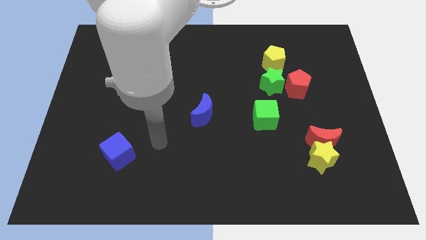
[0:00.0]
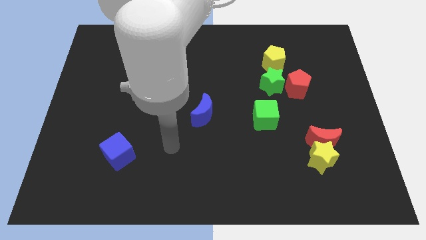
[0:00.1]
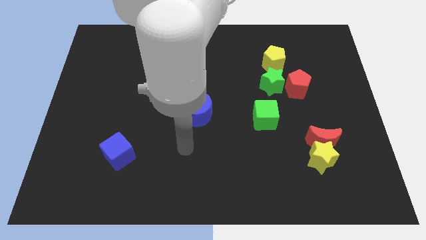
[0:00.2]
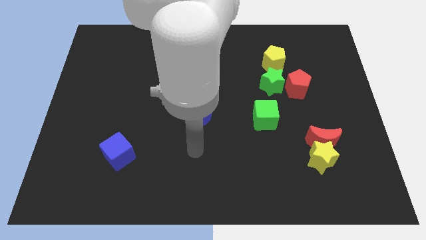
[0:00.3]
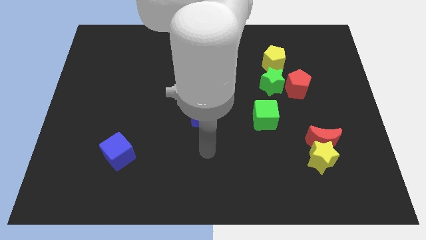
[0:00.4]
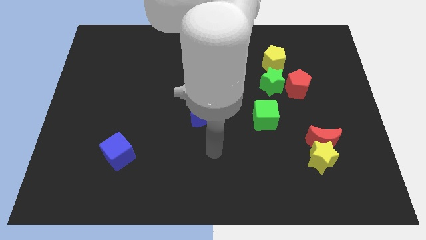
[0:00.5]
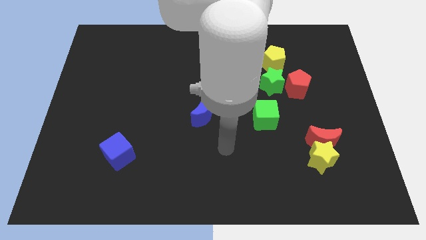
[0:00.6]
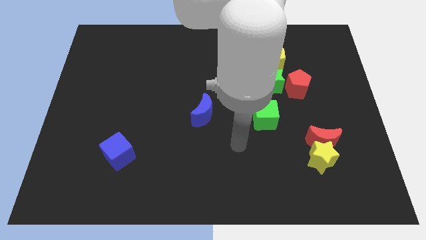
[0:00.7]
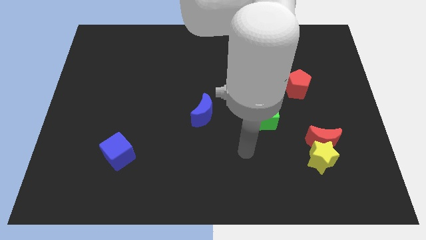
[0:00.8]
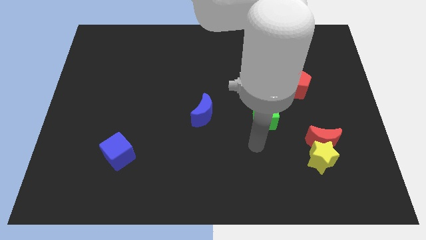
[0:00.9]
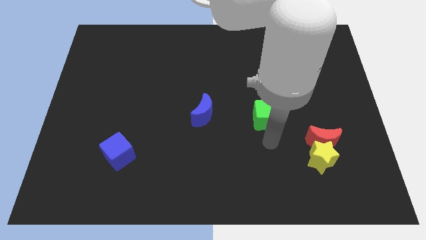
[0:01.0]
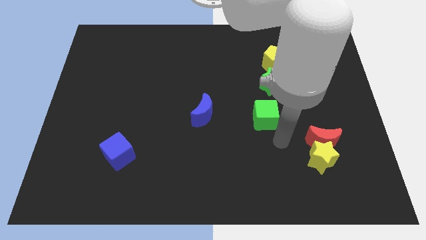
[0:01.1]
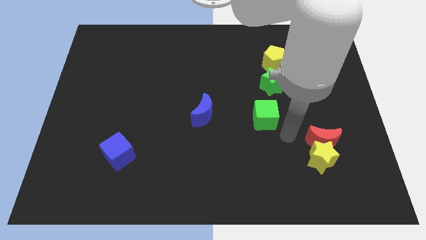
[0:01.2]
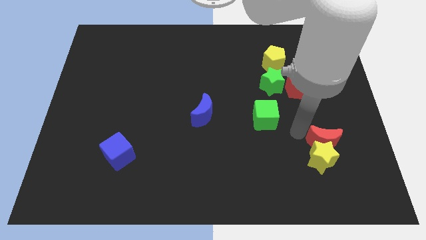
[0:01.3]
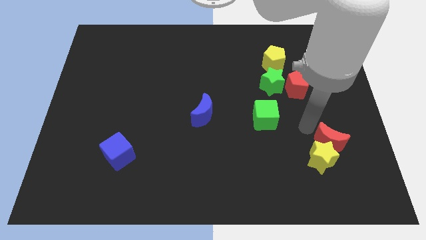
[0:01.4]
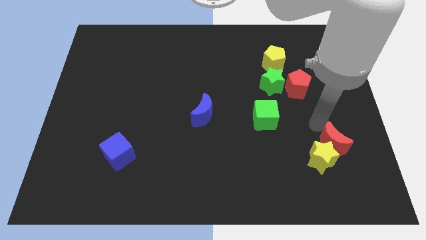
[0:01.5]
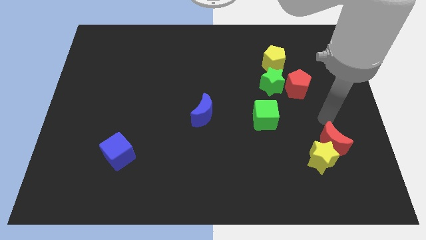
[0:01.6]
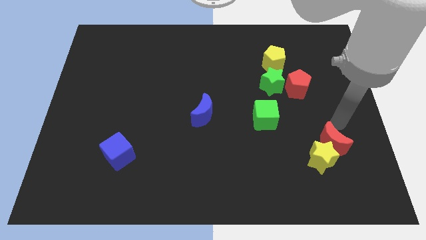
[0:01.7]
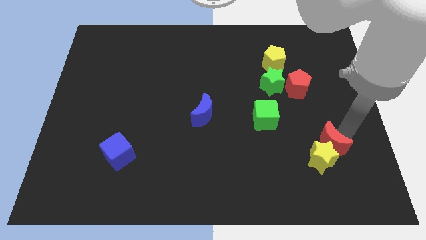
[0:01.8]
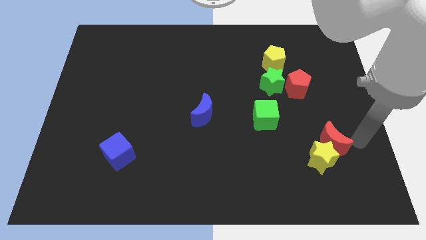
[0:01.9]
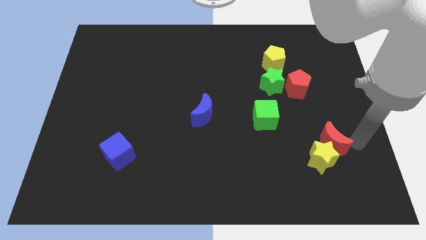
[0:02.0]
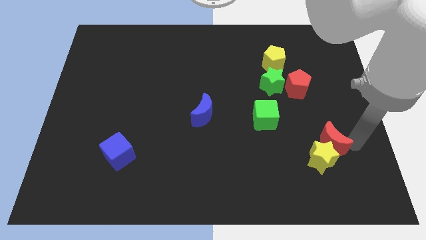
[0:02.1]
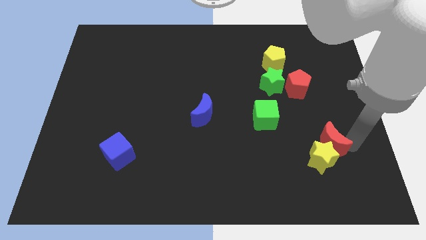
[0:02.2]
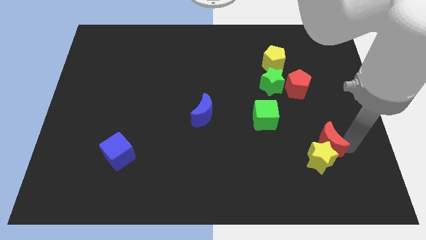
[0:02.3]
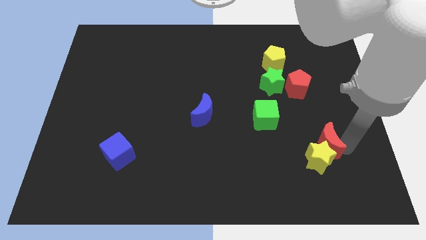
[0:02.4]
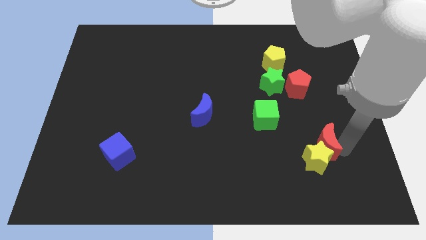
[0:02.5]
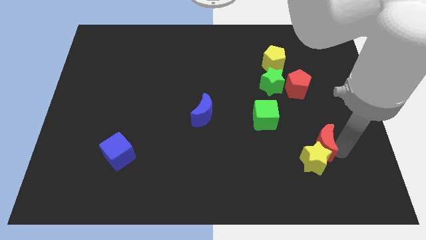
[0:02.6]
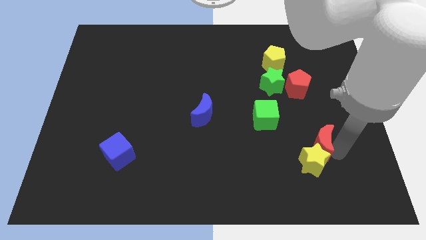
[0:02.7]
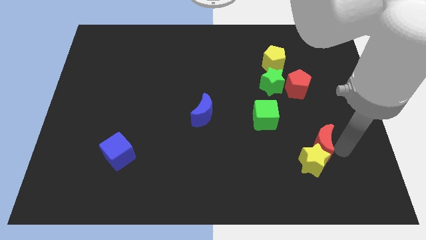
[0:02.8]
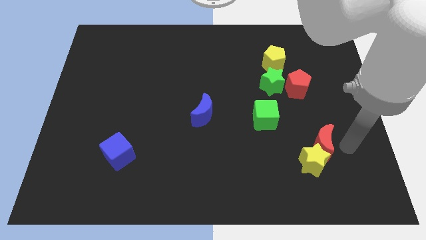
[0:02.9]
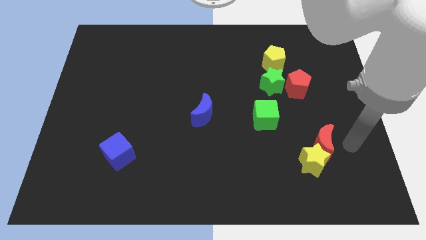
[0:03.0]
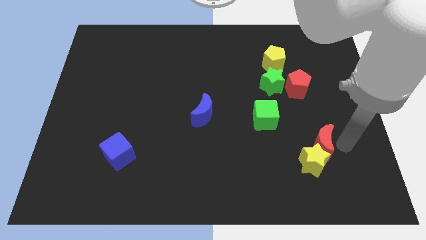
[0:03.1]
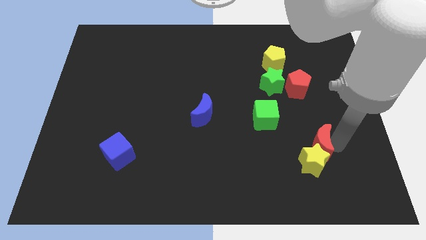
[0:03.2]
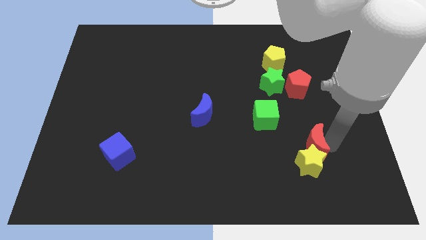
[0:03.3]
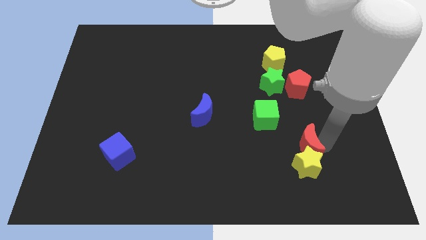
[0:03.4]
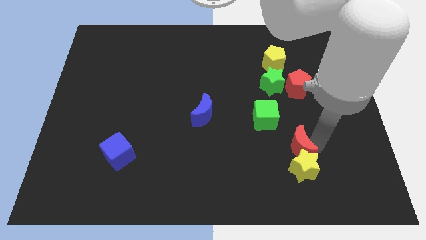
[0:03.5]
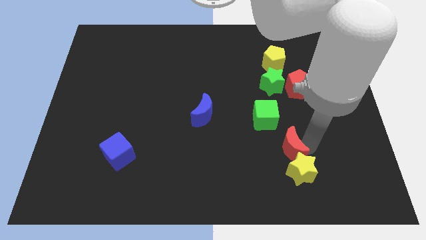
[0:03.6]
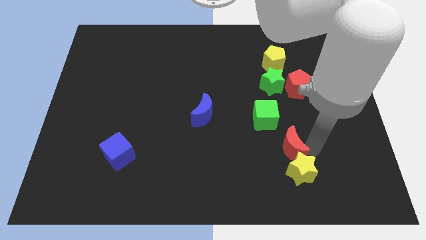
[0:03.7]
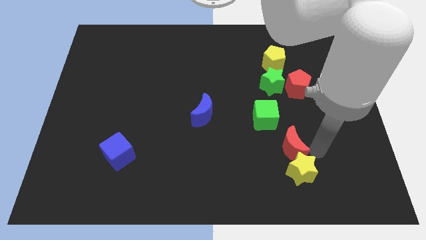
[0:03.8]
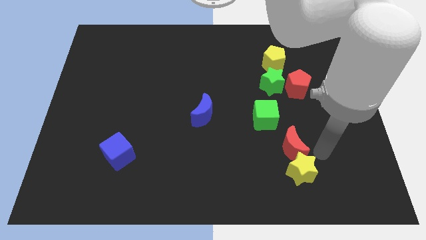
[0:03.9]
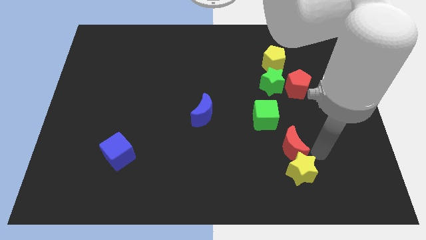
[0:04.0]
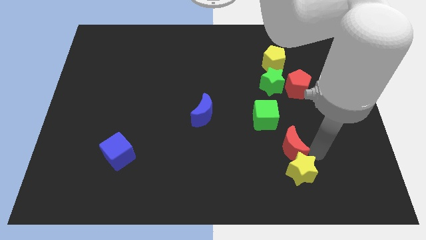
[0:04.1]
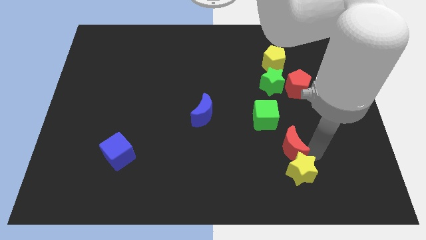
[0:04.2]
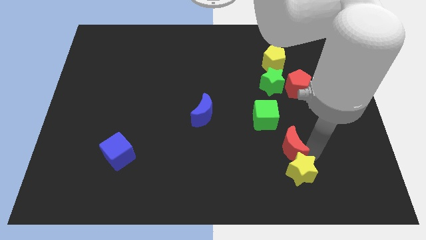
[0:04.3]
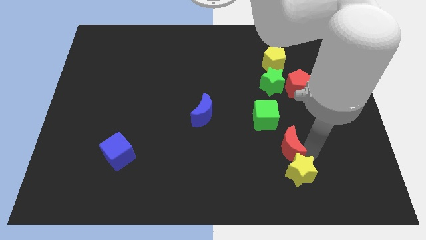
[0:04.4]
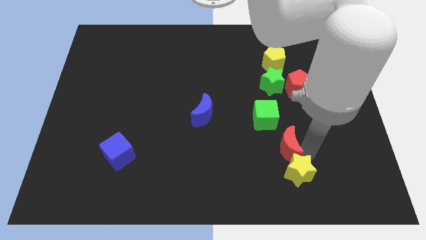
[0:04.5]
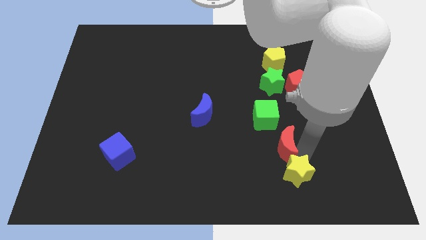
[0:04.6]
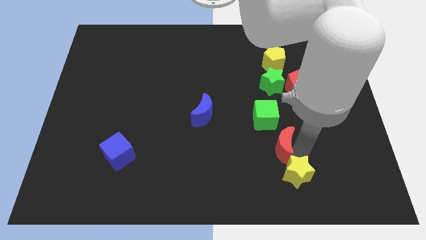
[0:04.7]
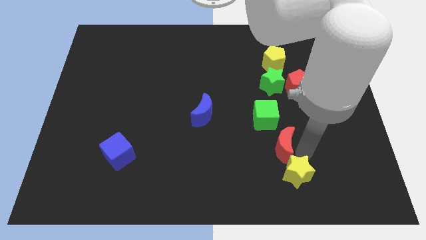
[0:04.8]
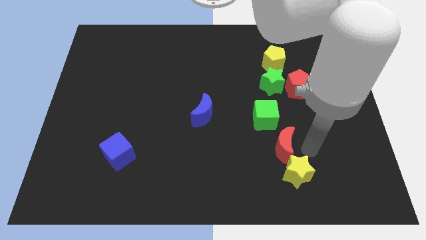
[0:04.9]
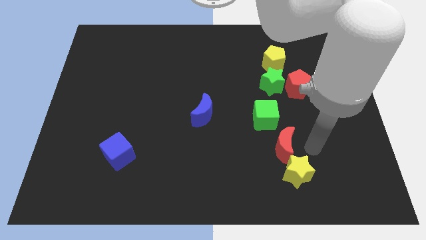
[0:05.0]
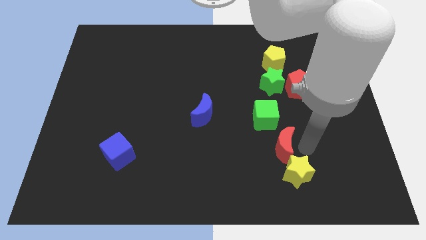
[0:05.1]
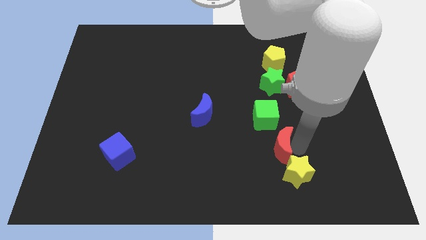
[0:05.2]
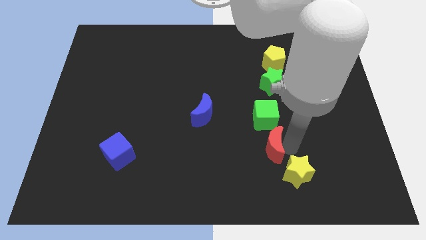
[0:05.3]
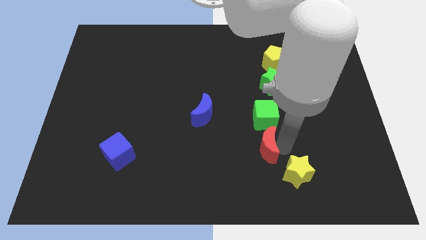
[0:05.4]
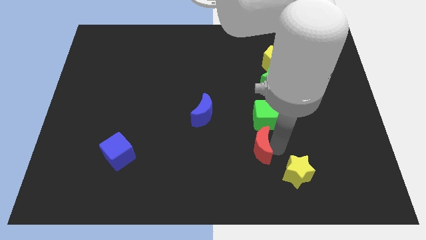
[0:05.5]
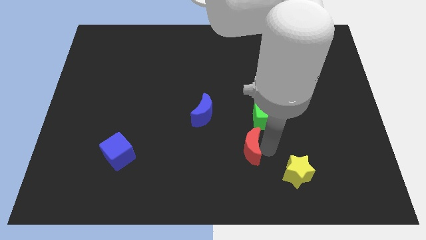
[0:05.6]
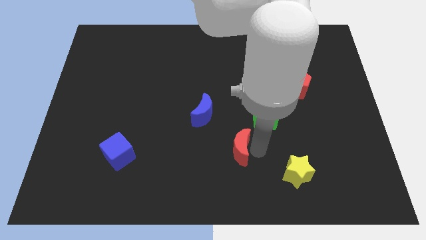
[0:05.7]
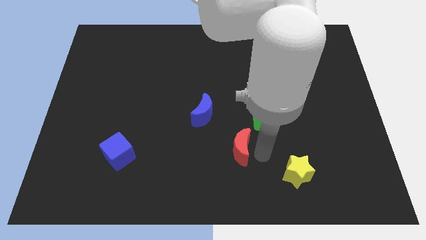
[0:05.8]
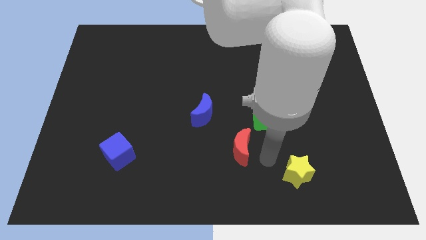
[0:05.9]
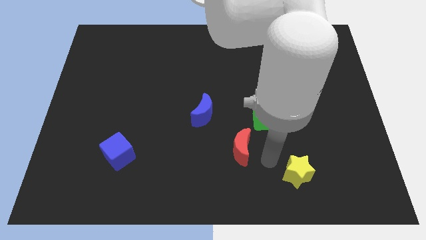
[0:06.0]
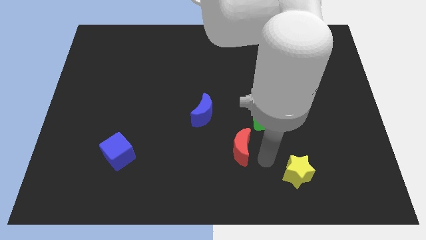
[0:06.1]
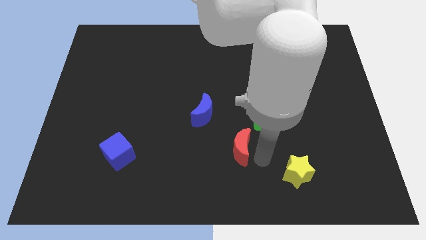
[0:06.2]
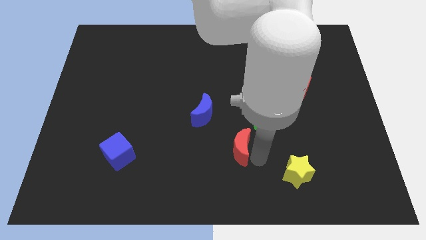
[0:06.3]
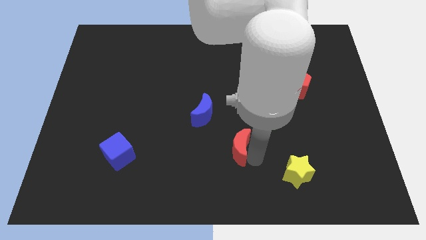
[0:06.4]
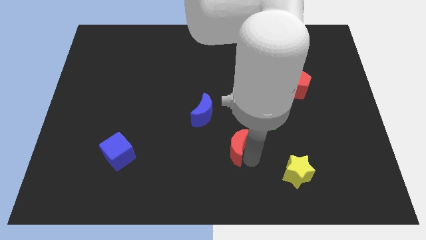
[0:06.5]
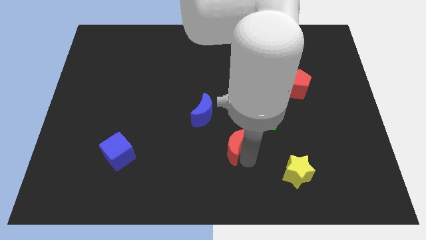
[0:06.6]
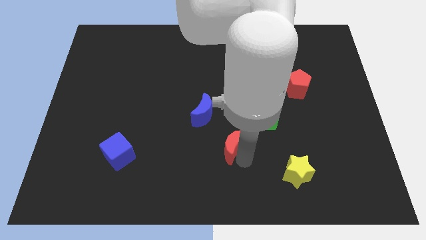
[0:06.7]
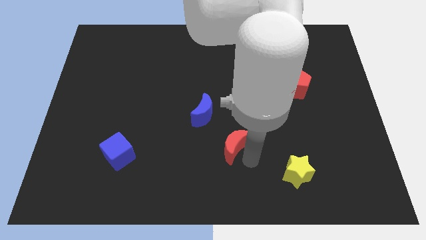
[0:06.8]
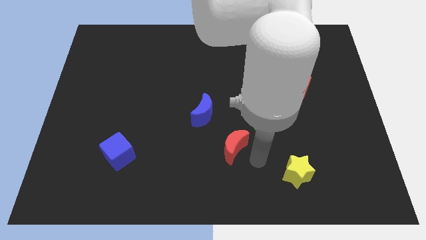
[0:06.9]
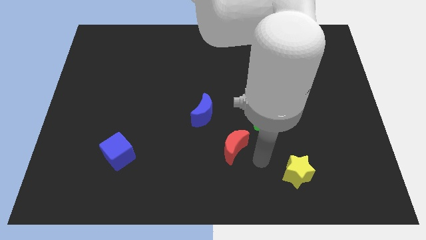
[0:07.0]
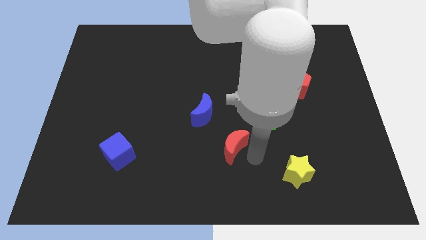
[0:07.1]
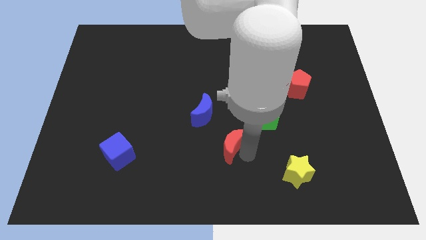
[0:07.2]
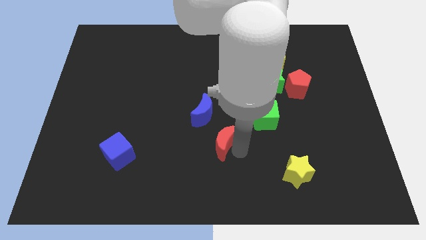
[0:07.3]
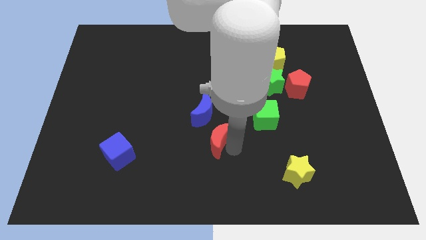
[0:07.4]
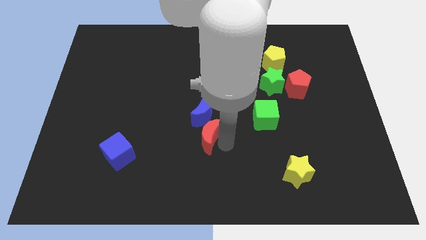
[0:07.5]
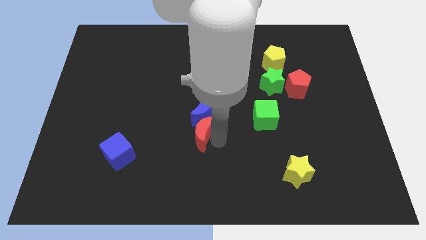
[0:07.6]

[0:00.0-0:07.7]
put the red moon diagonally down and to the left of the blue moon
